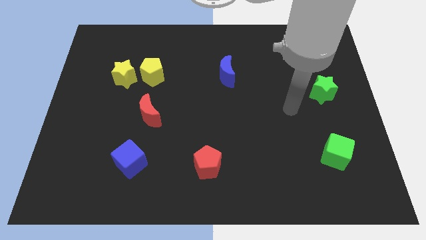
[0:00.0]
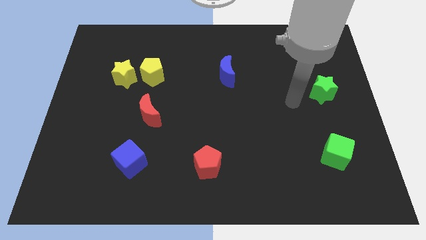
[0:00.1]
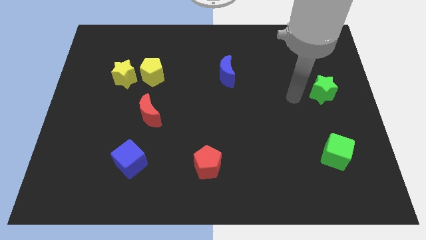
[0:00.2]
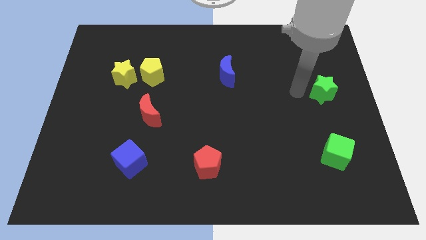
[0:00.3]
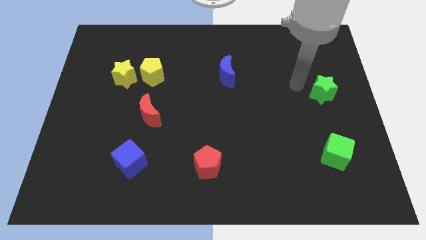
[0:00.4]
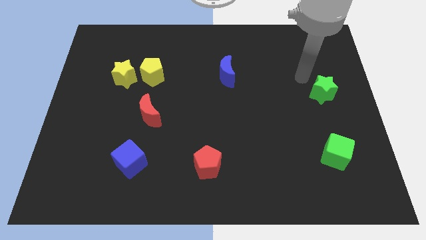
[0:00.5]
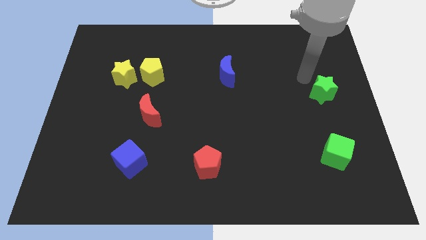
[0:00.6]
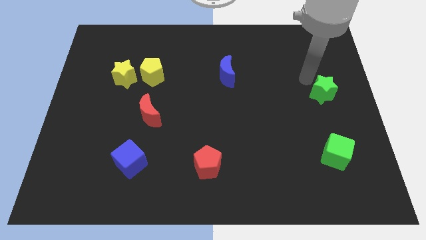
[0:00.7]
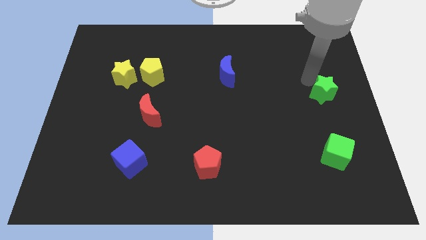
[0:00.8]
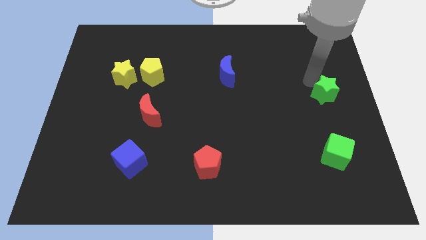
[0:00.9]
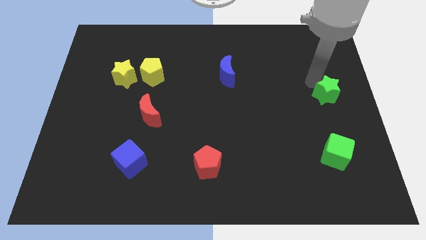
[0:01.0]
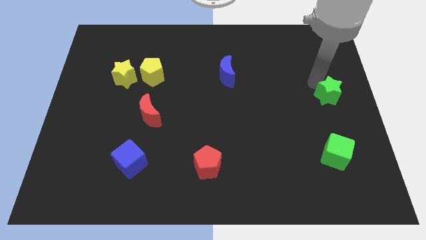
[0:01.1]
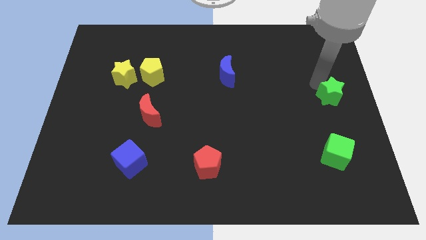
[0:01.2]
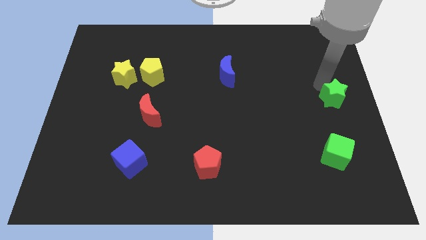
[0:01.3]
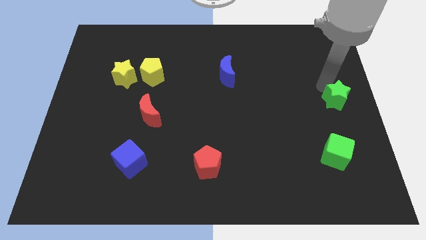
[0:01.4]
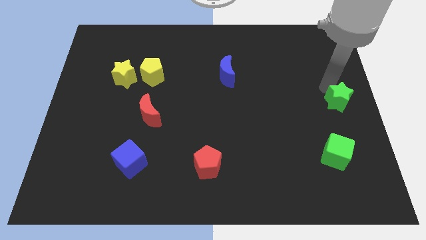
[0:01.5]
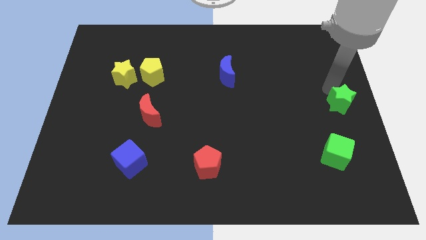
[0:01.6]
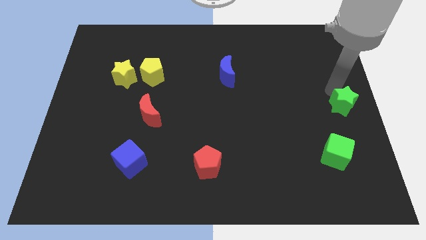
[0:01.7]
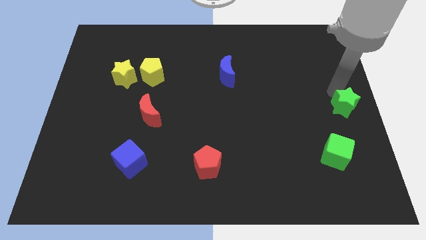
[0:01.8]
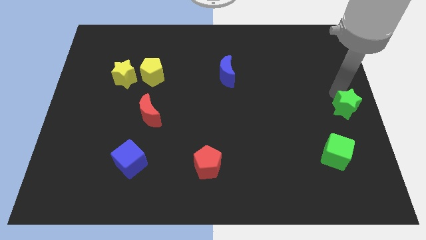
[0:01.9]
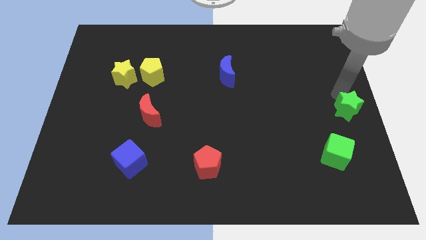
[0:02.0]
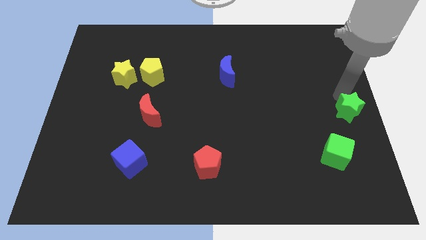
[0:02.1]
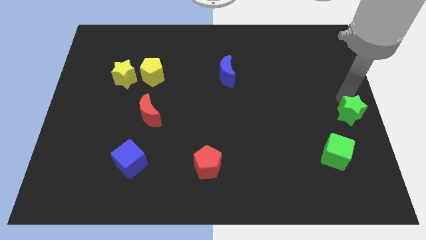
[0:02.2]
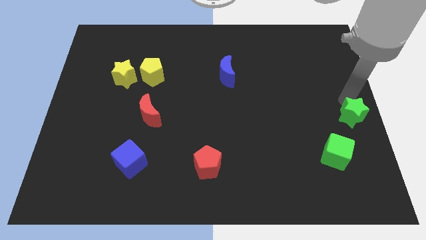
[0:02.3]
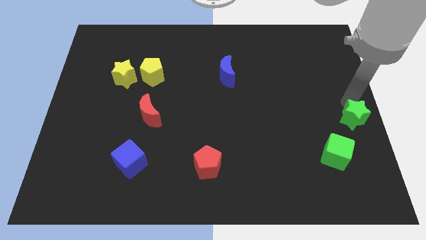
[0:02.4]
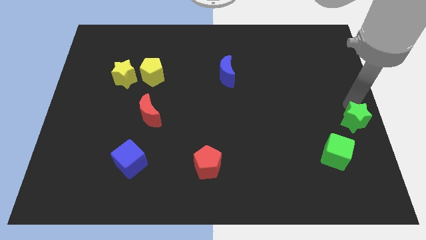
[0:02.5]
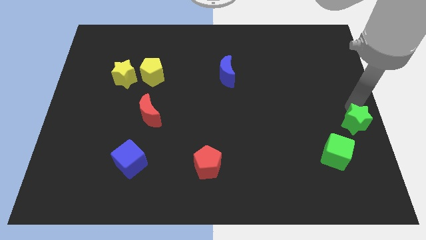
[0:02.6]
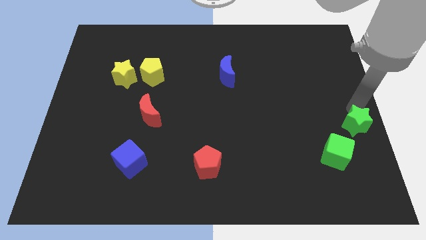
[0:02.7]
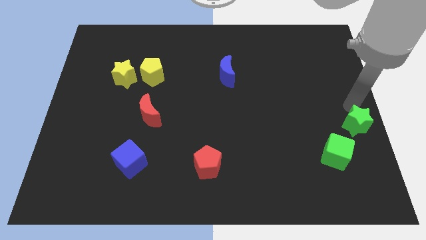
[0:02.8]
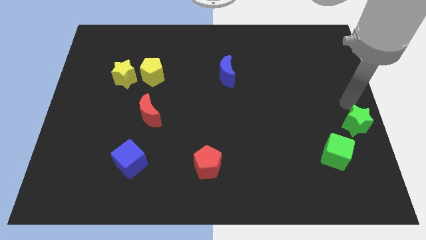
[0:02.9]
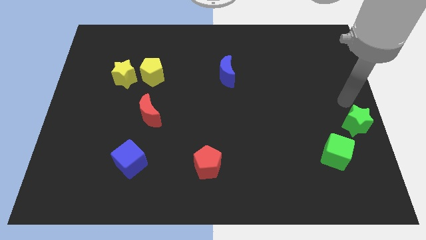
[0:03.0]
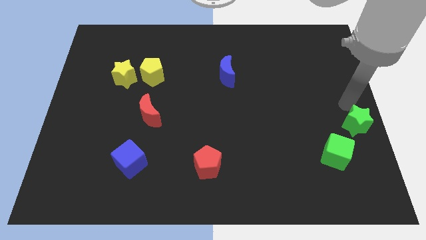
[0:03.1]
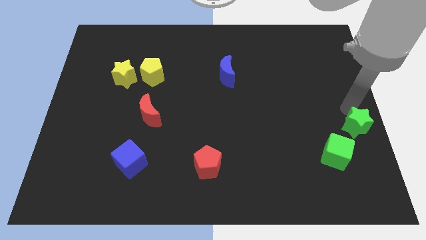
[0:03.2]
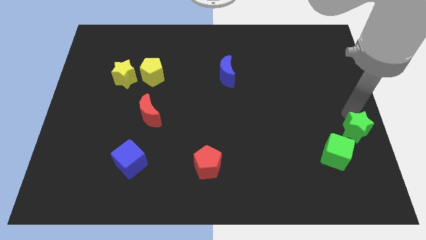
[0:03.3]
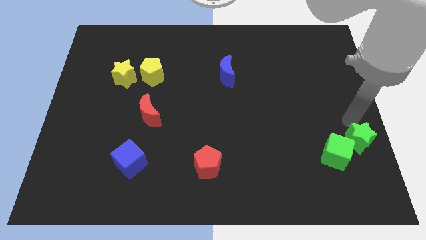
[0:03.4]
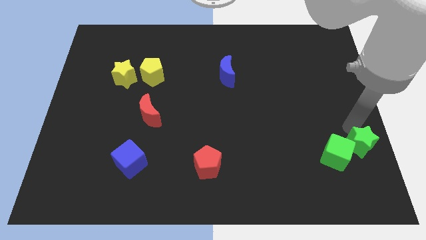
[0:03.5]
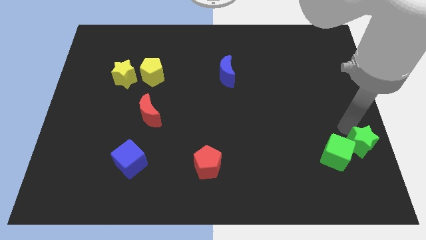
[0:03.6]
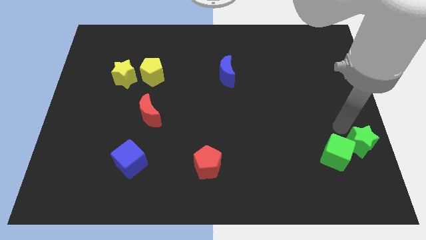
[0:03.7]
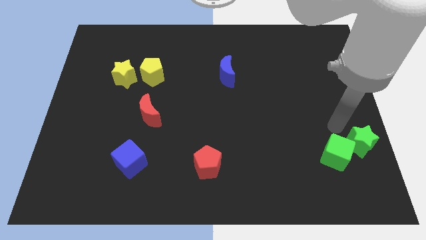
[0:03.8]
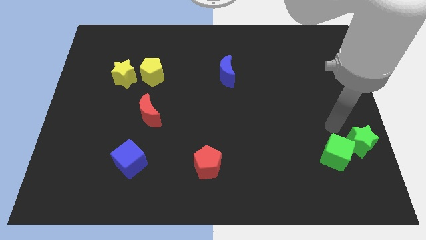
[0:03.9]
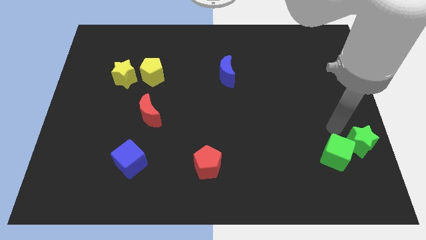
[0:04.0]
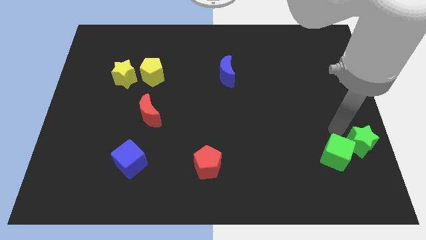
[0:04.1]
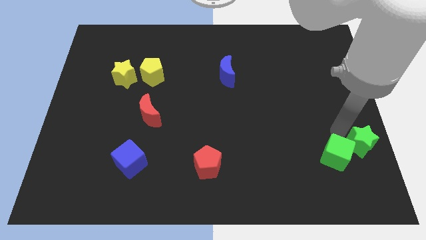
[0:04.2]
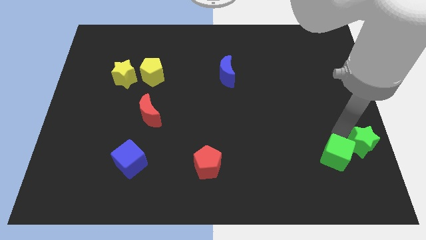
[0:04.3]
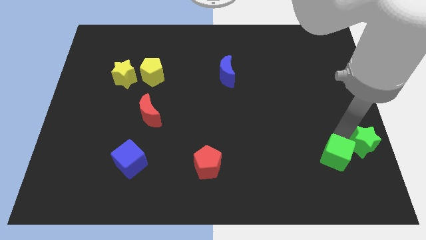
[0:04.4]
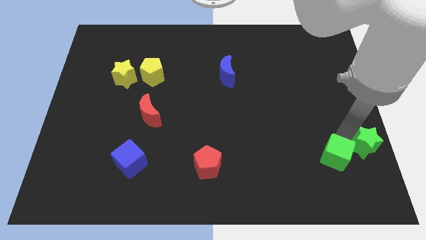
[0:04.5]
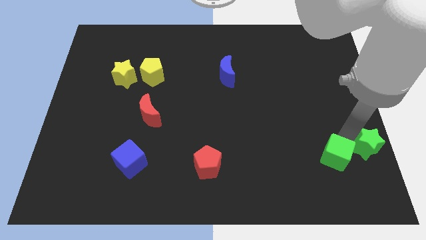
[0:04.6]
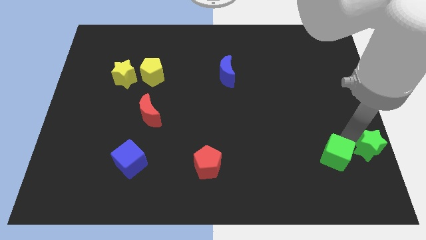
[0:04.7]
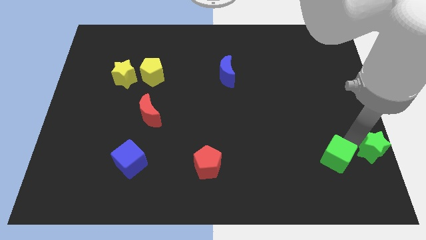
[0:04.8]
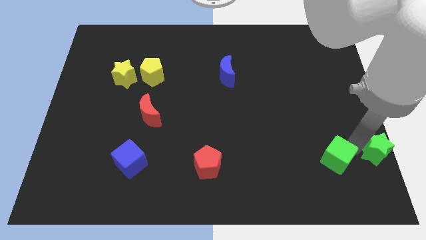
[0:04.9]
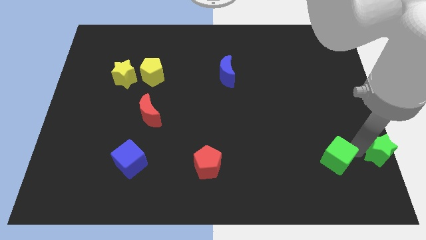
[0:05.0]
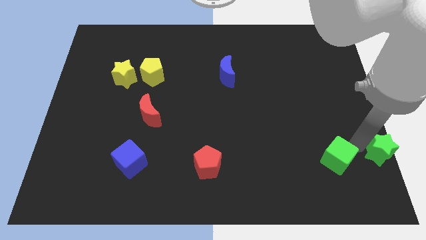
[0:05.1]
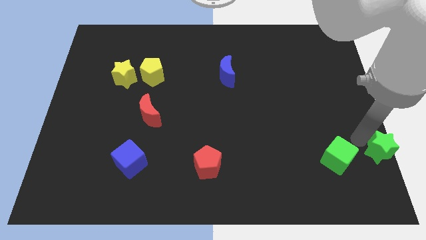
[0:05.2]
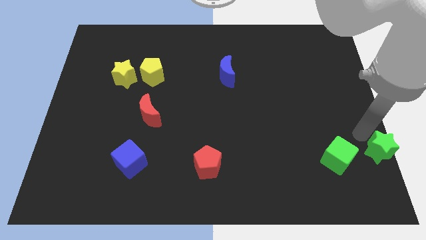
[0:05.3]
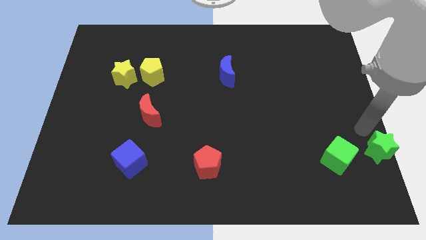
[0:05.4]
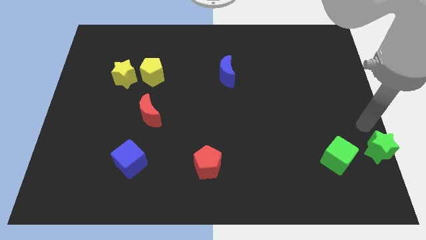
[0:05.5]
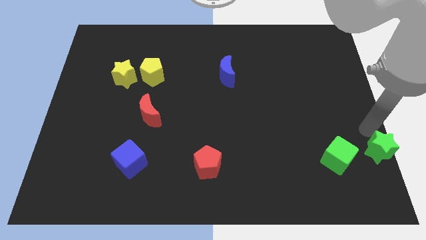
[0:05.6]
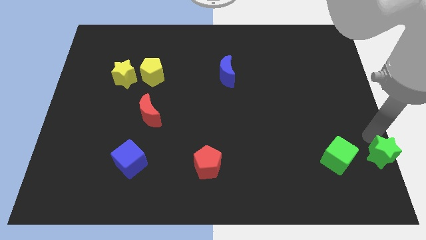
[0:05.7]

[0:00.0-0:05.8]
put the green star to the bottom right corner

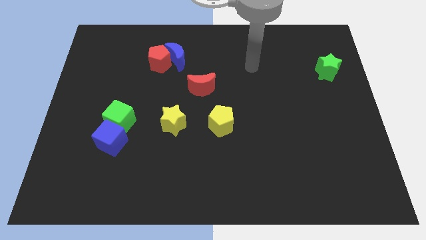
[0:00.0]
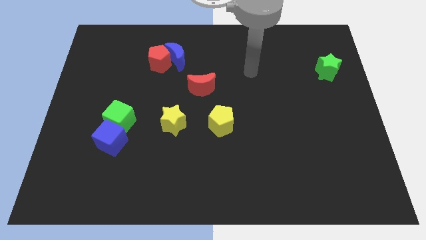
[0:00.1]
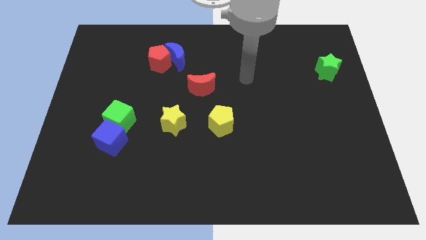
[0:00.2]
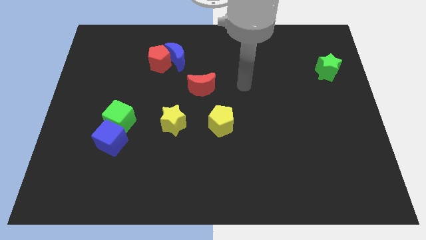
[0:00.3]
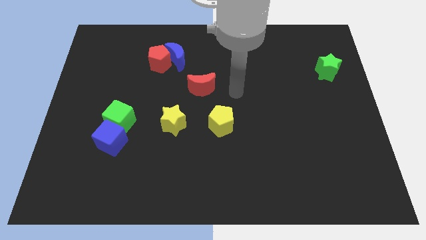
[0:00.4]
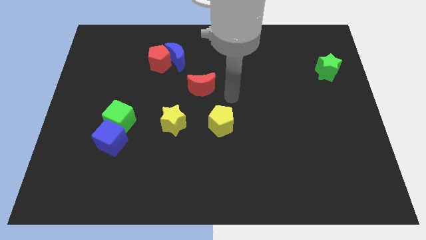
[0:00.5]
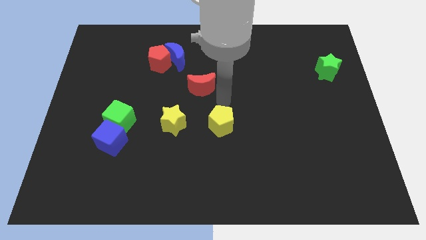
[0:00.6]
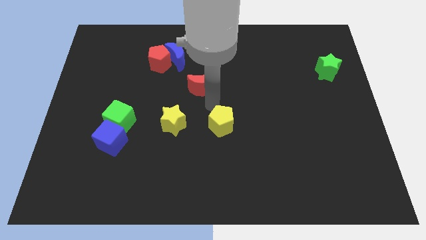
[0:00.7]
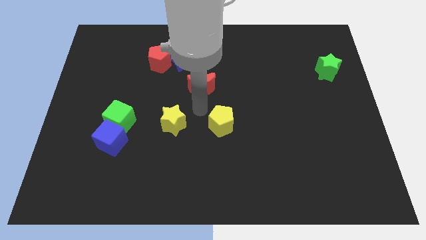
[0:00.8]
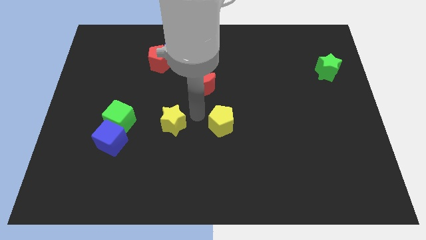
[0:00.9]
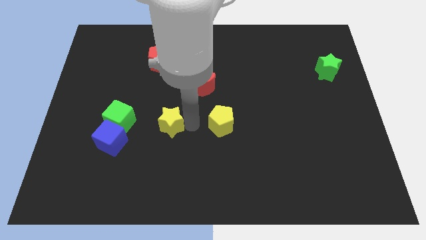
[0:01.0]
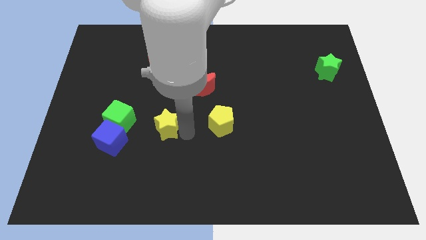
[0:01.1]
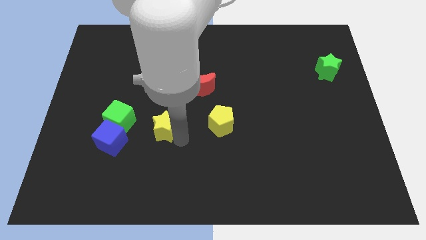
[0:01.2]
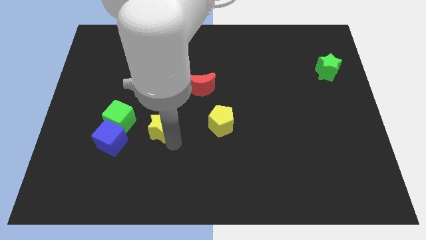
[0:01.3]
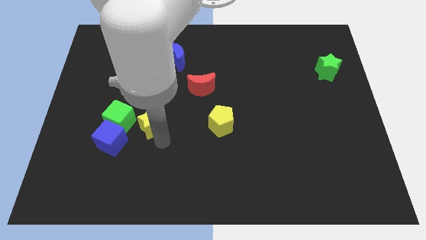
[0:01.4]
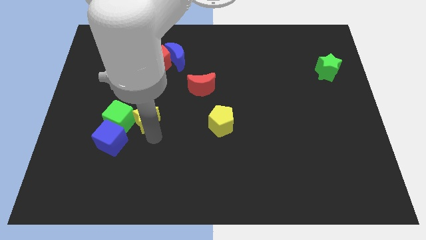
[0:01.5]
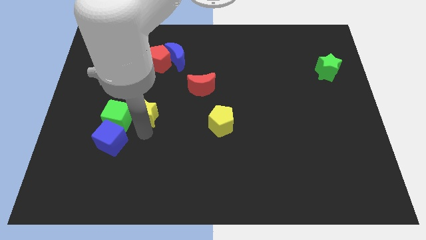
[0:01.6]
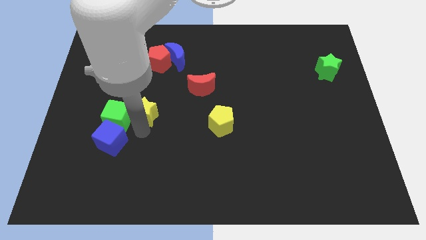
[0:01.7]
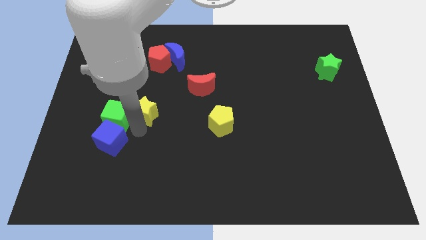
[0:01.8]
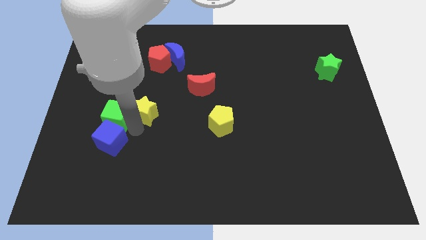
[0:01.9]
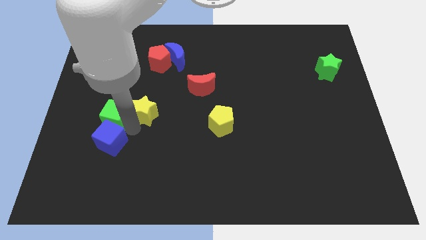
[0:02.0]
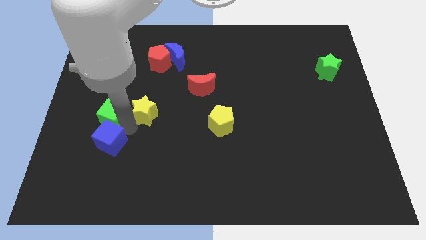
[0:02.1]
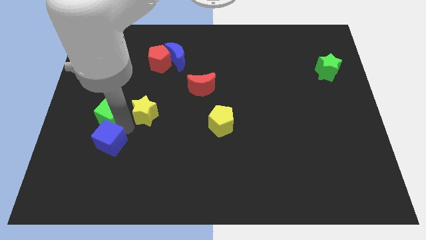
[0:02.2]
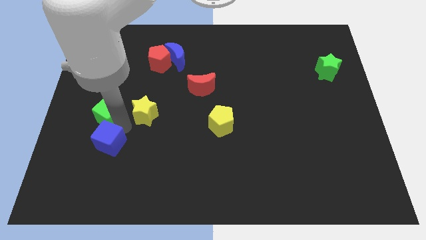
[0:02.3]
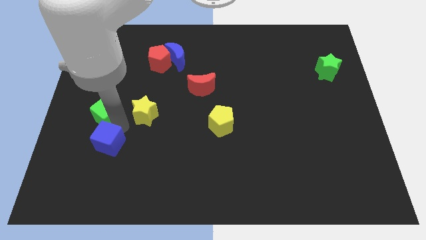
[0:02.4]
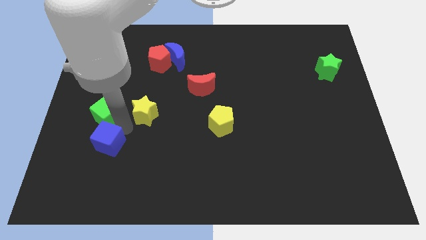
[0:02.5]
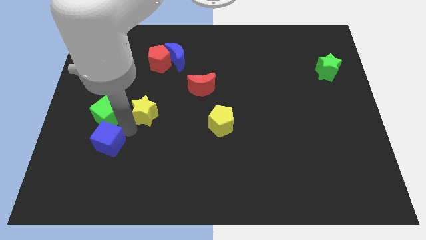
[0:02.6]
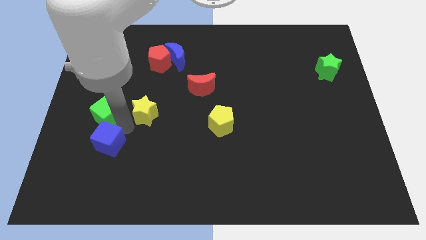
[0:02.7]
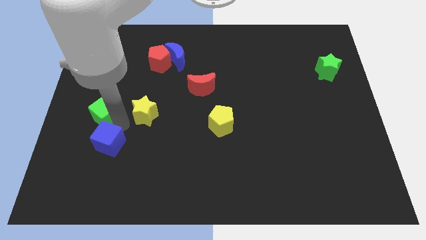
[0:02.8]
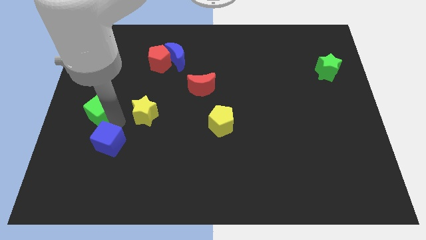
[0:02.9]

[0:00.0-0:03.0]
slide the green cube to the left side
